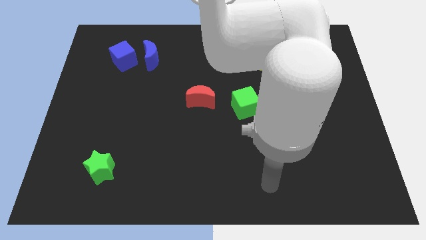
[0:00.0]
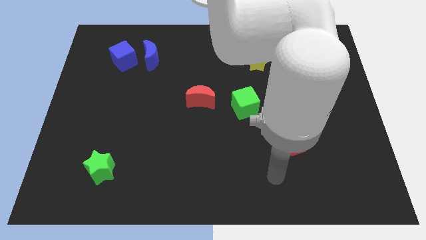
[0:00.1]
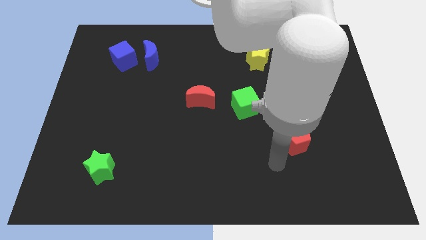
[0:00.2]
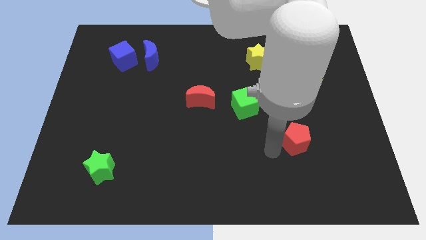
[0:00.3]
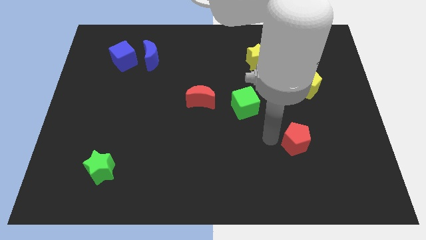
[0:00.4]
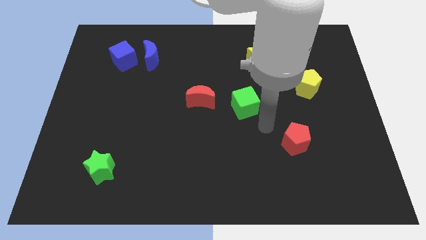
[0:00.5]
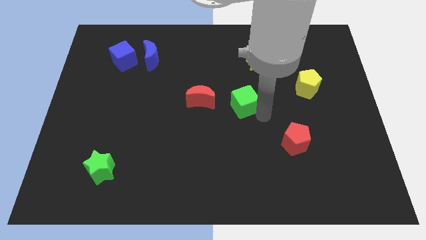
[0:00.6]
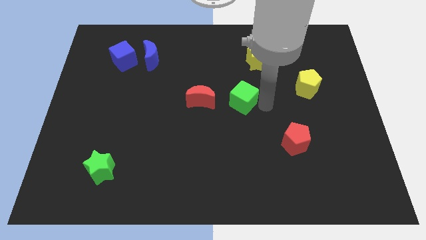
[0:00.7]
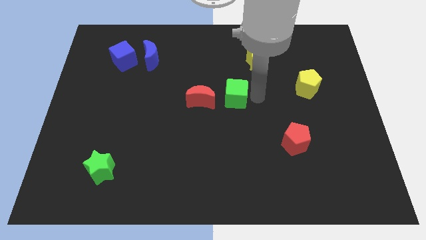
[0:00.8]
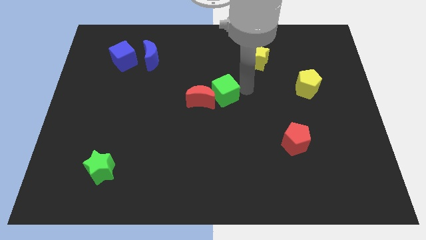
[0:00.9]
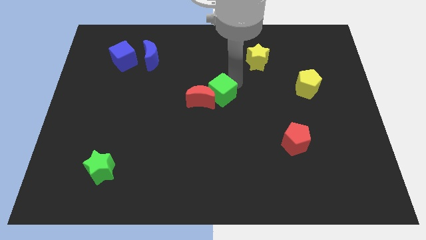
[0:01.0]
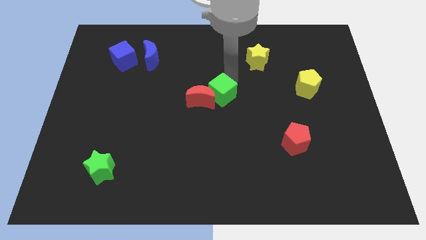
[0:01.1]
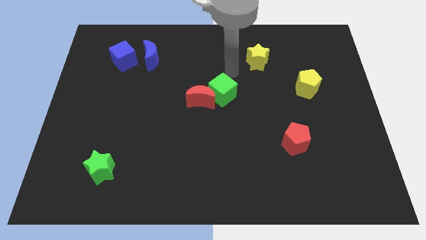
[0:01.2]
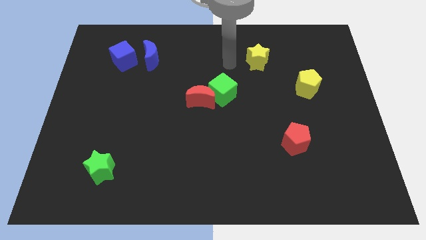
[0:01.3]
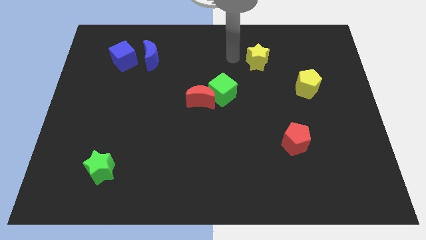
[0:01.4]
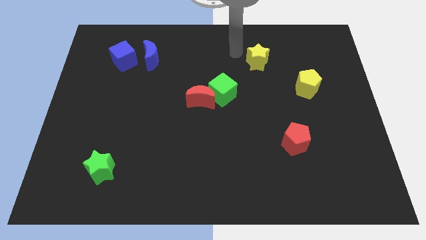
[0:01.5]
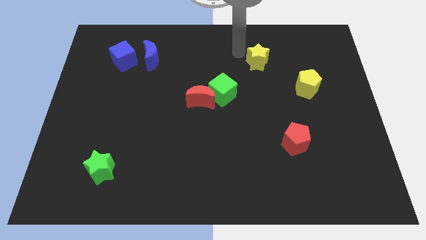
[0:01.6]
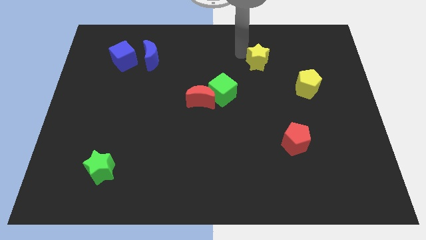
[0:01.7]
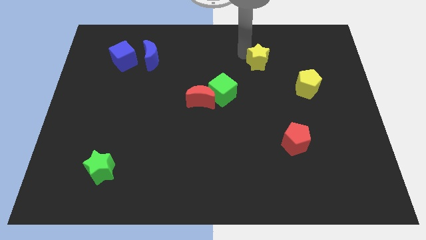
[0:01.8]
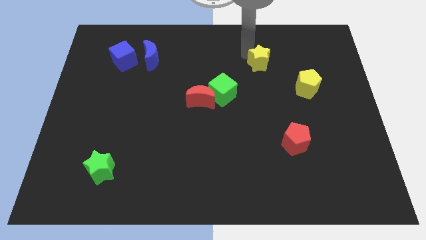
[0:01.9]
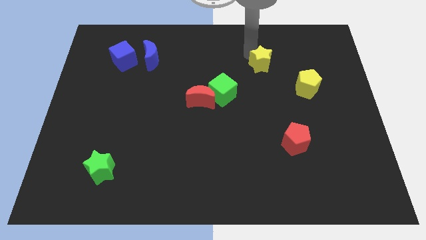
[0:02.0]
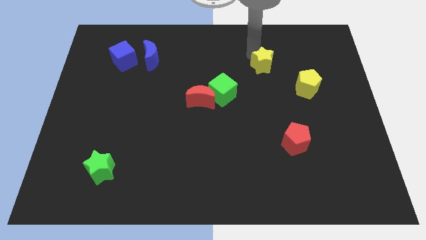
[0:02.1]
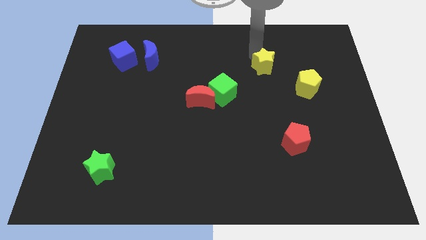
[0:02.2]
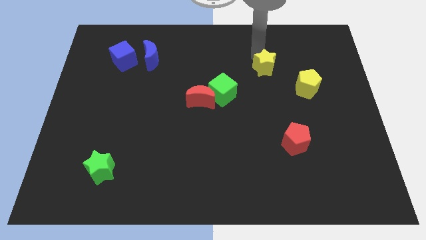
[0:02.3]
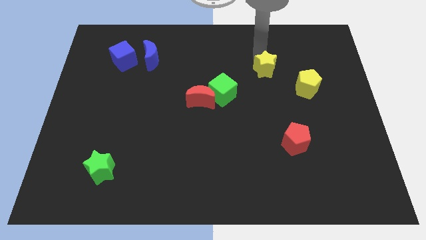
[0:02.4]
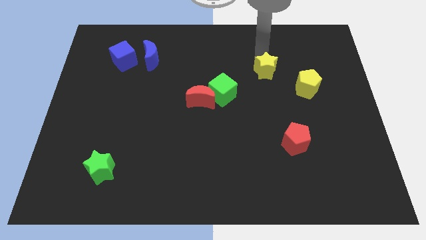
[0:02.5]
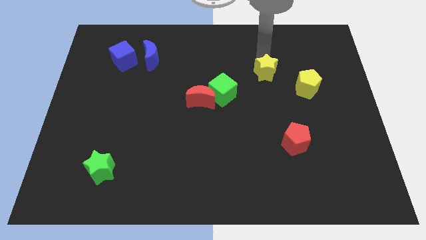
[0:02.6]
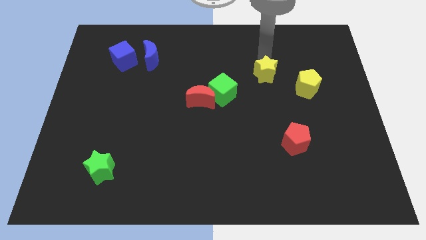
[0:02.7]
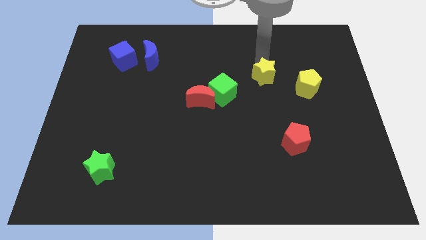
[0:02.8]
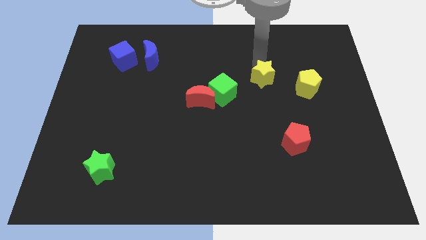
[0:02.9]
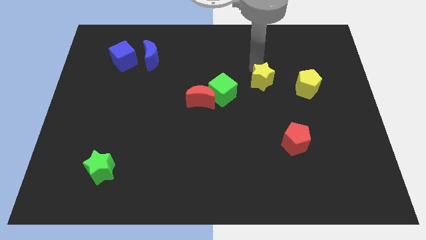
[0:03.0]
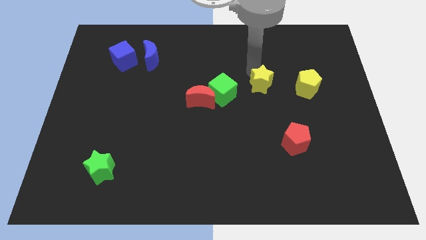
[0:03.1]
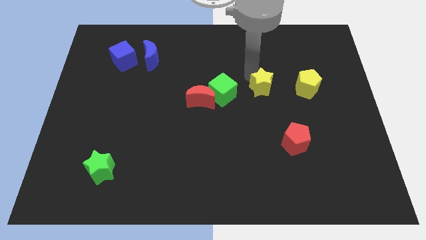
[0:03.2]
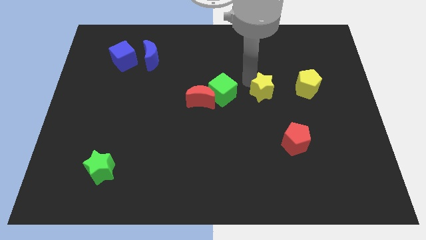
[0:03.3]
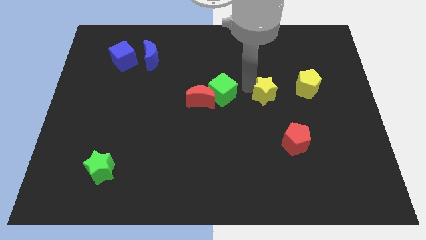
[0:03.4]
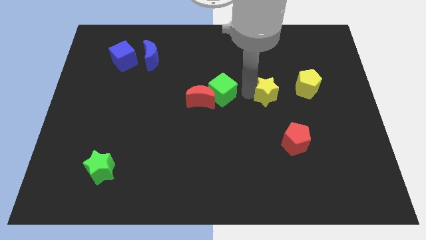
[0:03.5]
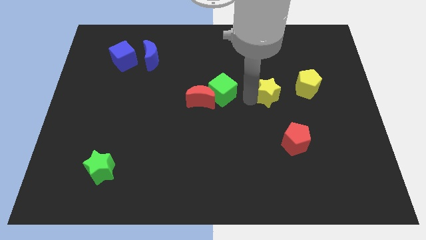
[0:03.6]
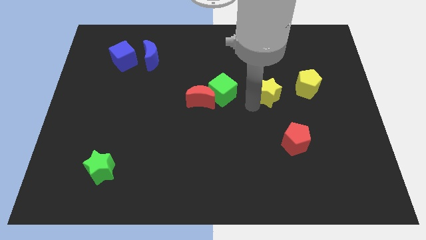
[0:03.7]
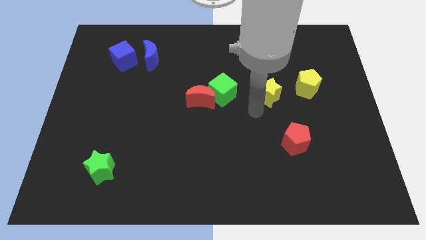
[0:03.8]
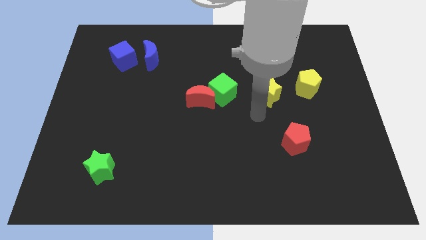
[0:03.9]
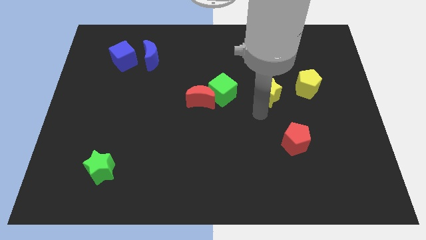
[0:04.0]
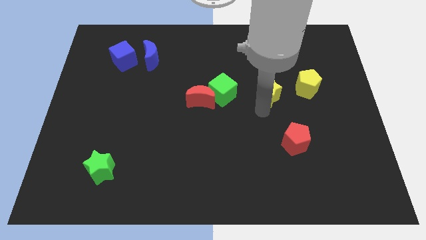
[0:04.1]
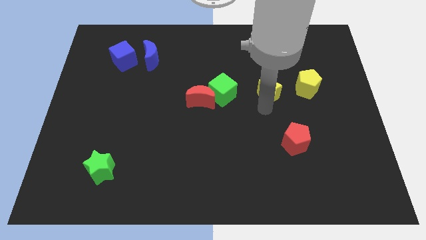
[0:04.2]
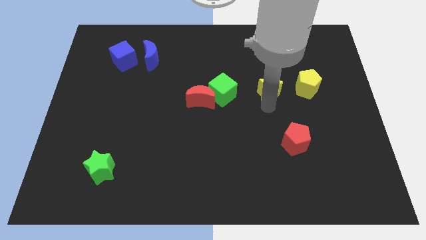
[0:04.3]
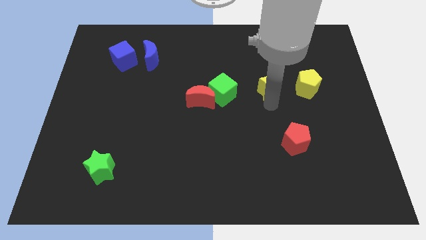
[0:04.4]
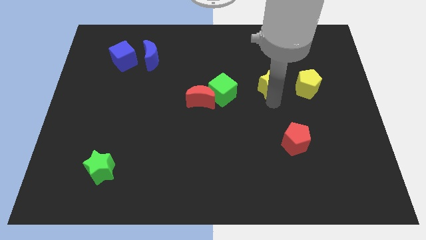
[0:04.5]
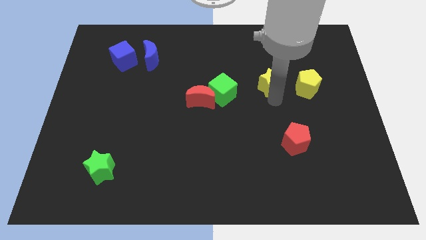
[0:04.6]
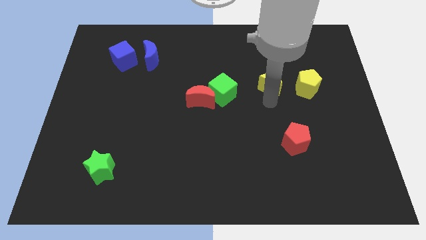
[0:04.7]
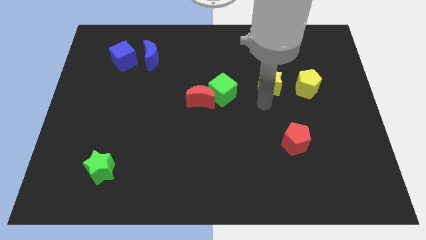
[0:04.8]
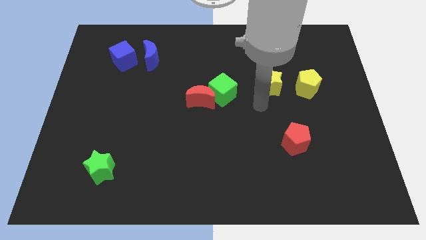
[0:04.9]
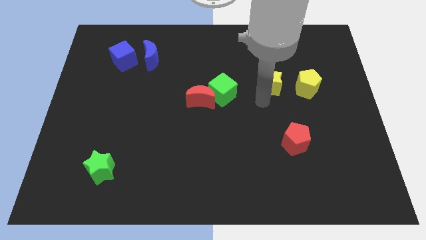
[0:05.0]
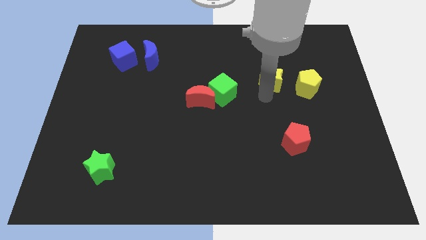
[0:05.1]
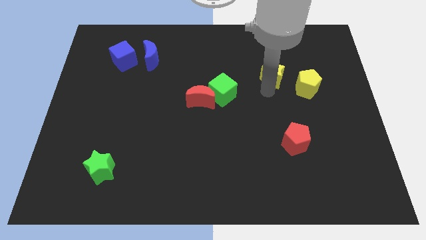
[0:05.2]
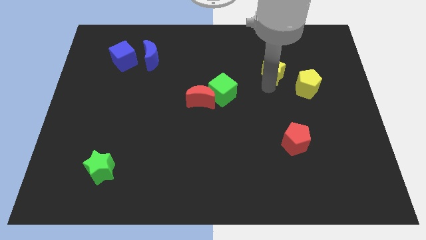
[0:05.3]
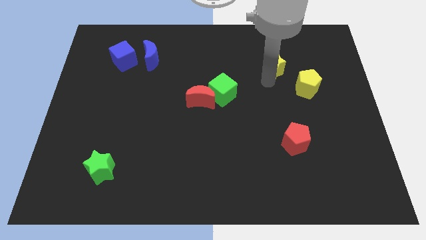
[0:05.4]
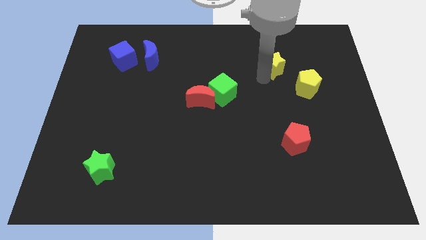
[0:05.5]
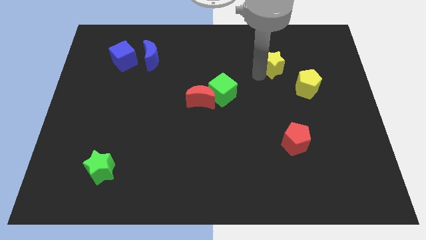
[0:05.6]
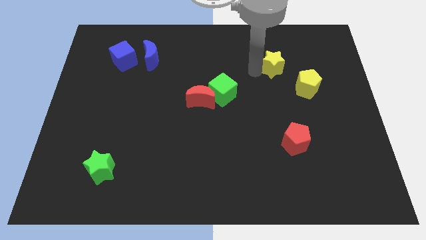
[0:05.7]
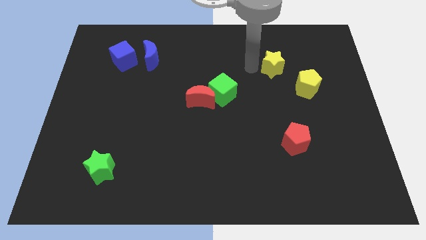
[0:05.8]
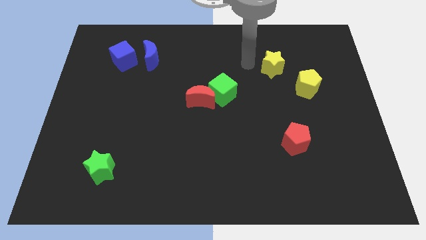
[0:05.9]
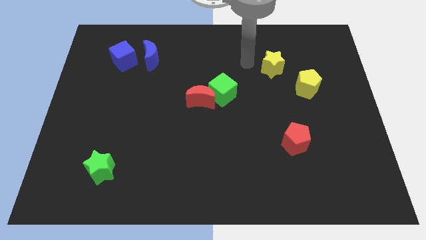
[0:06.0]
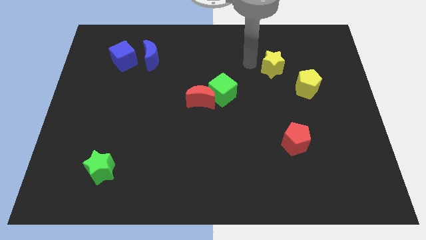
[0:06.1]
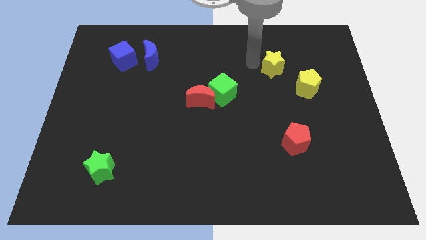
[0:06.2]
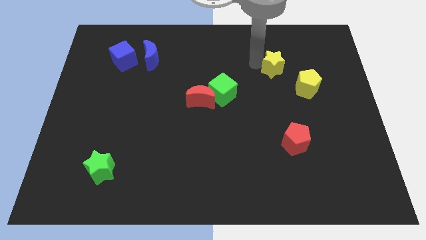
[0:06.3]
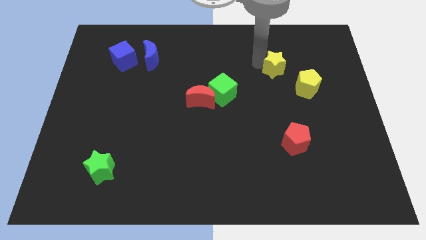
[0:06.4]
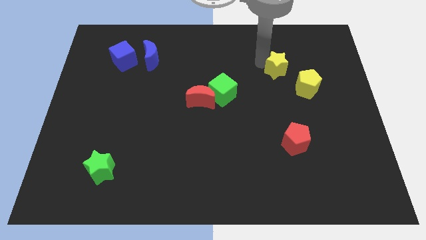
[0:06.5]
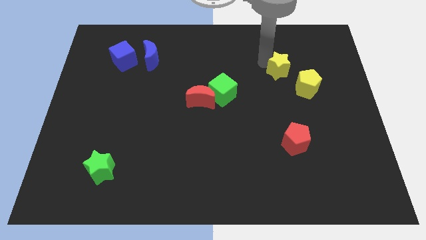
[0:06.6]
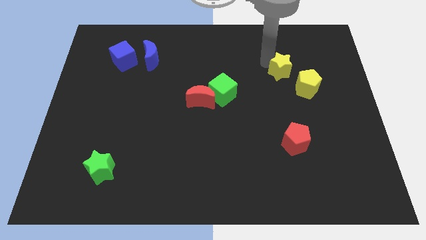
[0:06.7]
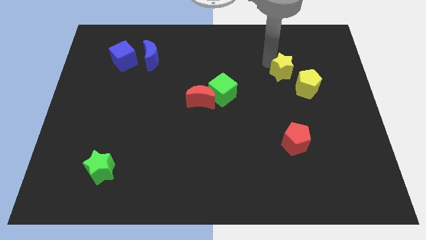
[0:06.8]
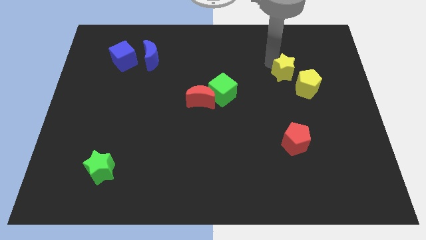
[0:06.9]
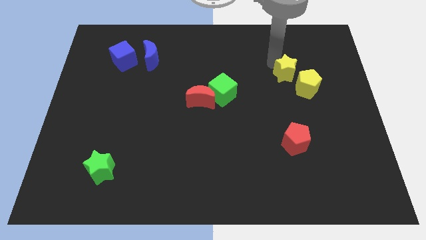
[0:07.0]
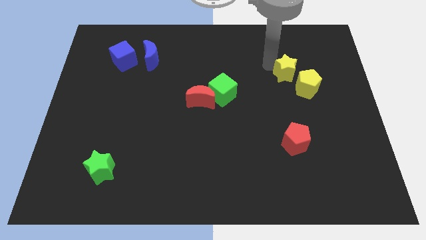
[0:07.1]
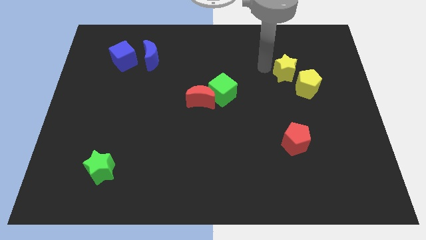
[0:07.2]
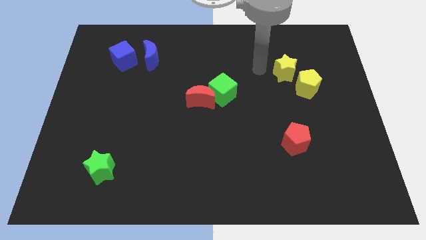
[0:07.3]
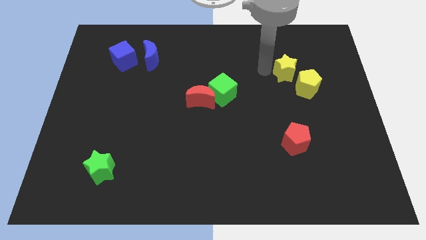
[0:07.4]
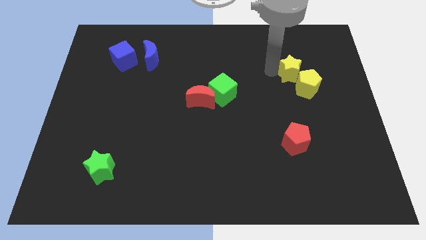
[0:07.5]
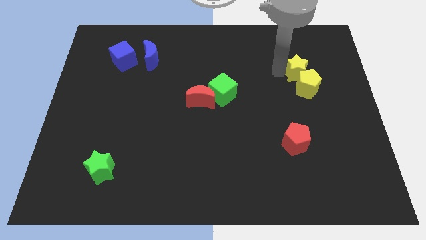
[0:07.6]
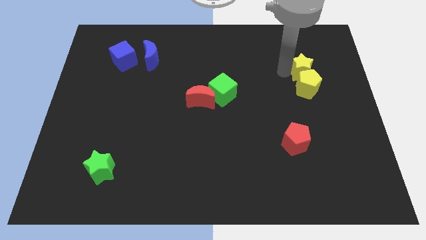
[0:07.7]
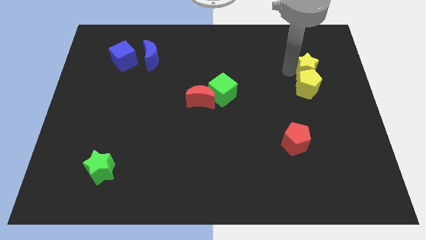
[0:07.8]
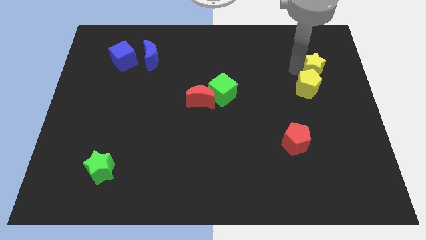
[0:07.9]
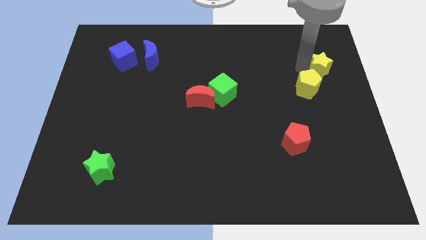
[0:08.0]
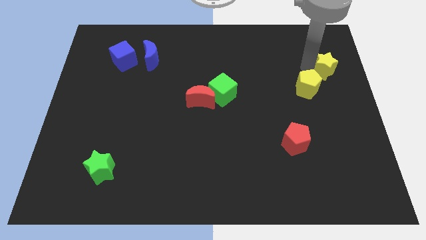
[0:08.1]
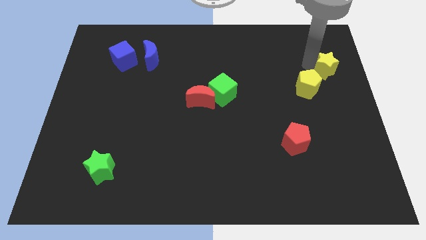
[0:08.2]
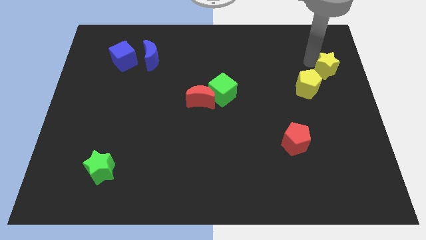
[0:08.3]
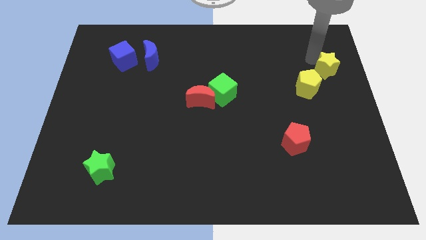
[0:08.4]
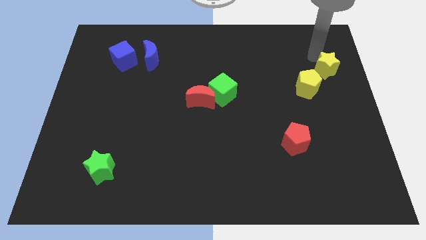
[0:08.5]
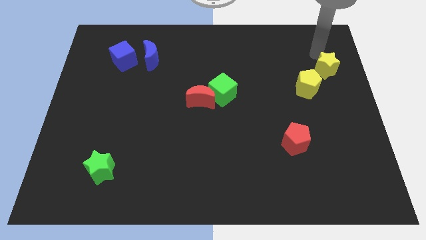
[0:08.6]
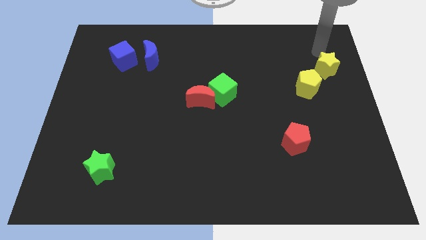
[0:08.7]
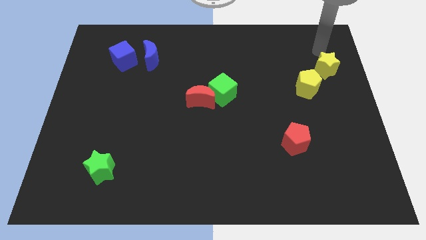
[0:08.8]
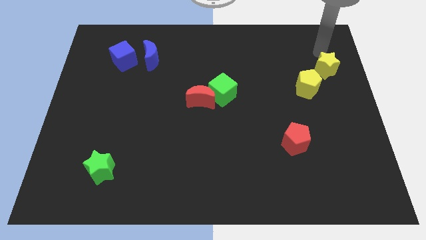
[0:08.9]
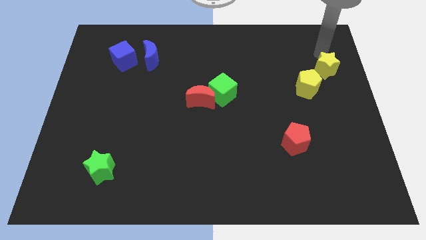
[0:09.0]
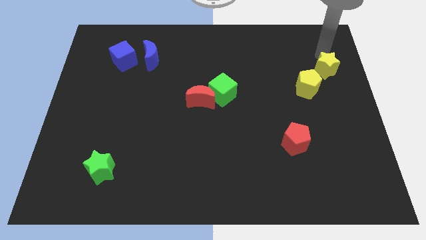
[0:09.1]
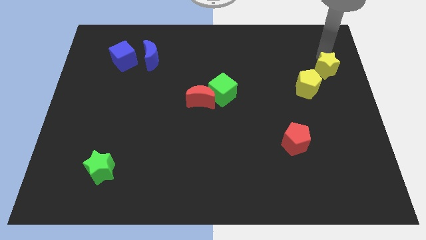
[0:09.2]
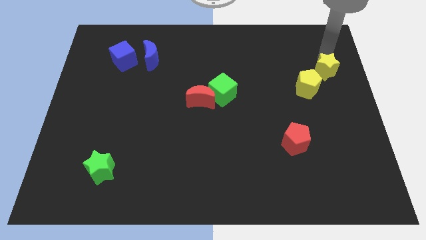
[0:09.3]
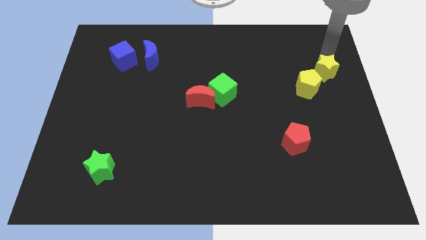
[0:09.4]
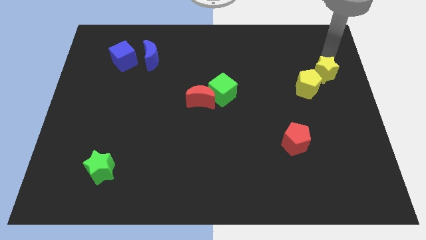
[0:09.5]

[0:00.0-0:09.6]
slide the yellow star to the right side
